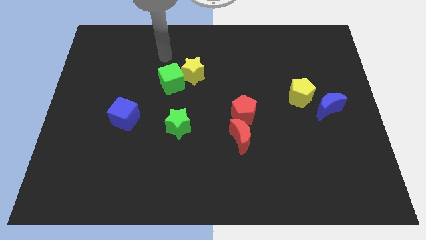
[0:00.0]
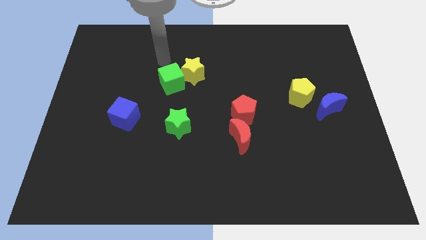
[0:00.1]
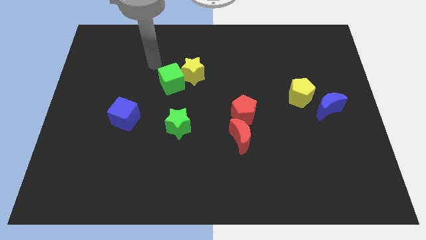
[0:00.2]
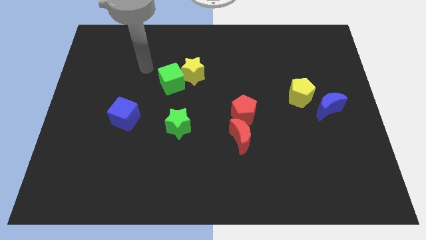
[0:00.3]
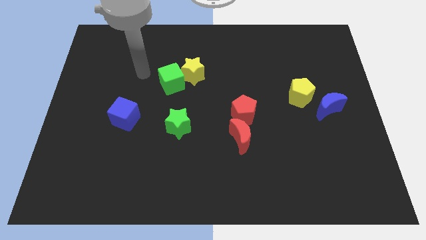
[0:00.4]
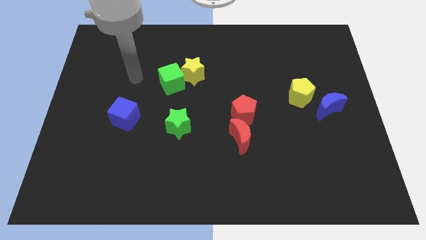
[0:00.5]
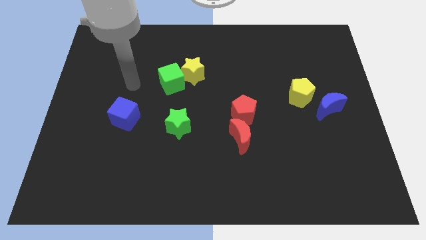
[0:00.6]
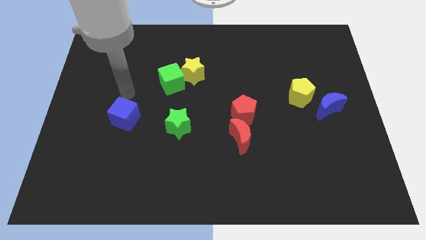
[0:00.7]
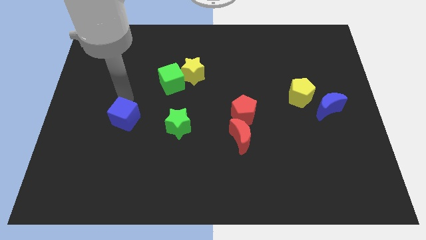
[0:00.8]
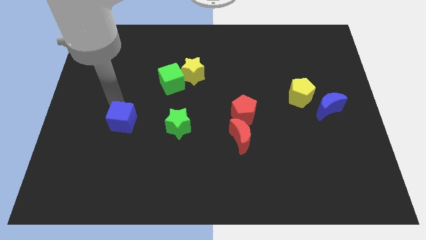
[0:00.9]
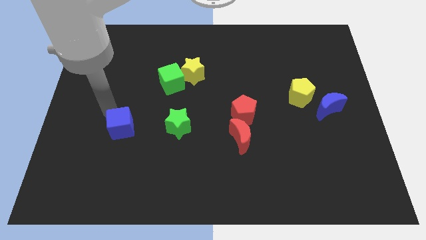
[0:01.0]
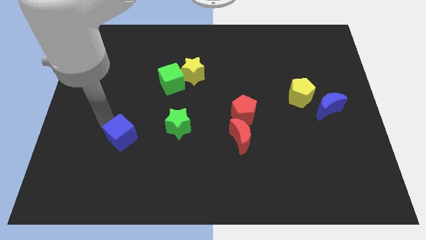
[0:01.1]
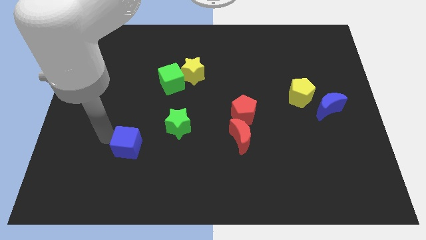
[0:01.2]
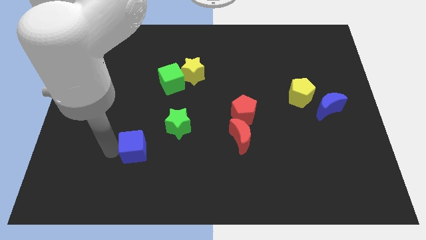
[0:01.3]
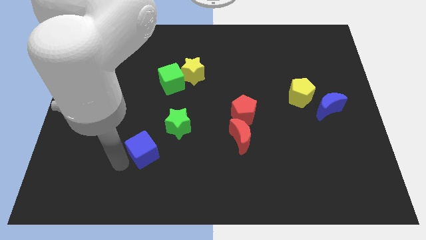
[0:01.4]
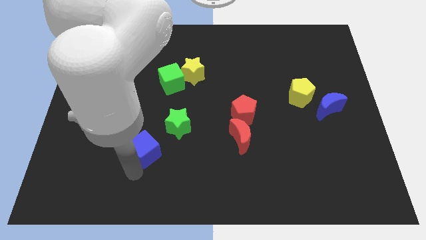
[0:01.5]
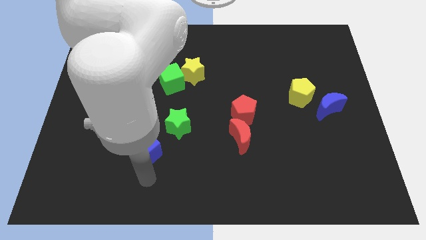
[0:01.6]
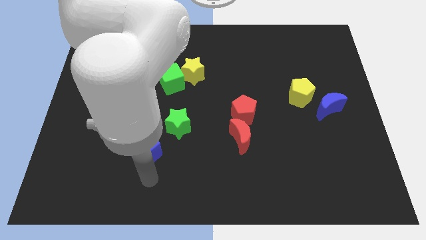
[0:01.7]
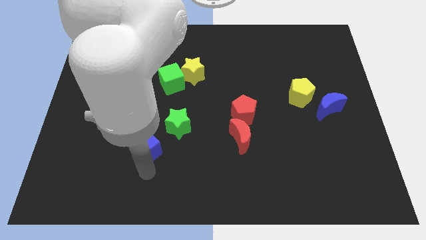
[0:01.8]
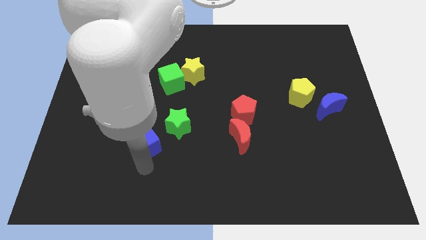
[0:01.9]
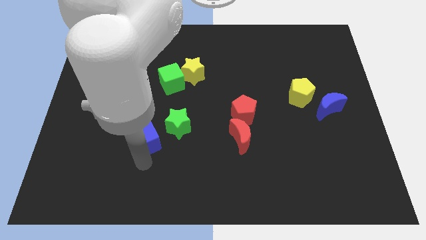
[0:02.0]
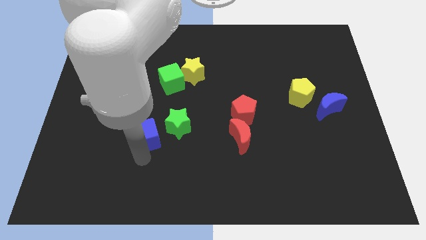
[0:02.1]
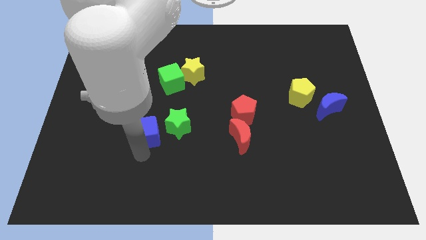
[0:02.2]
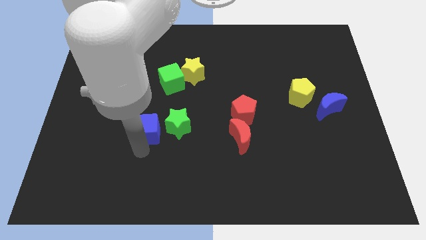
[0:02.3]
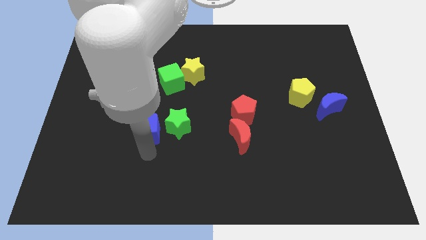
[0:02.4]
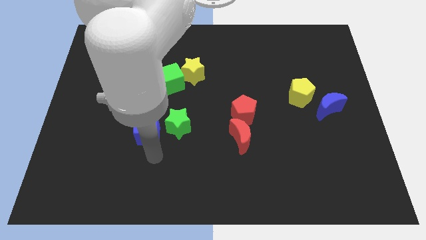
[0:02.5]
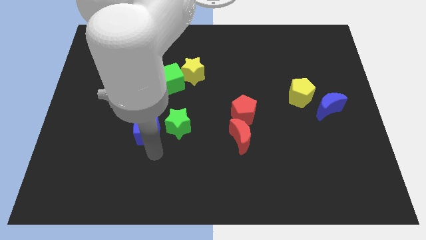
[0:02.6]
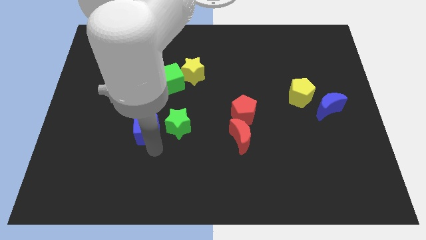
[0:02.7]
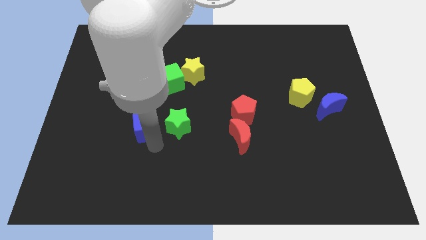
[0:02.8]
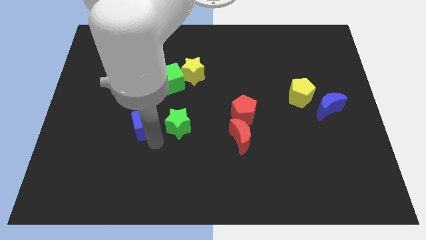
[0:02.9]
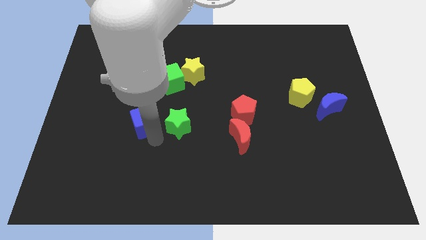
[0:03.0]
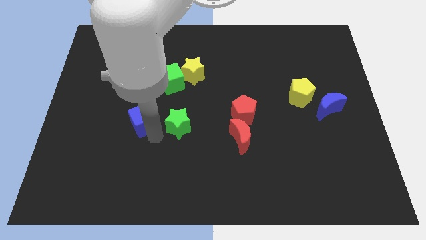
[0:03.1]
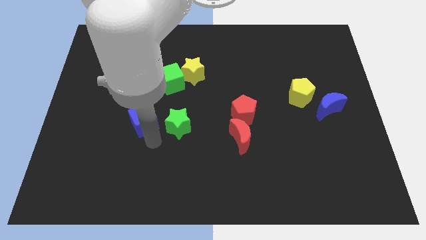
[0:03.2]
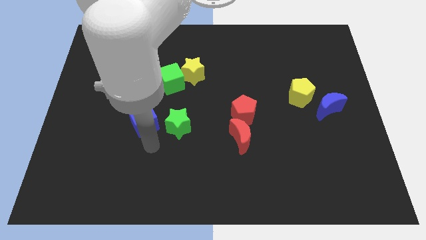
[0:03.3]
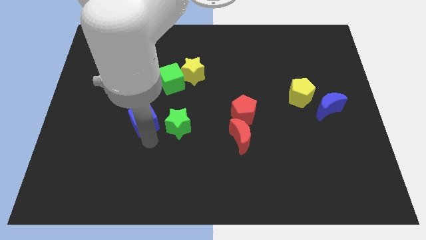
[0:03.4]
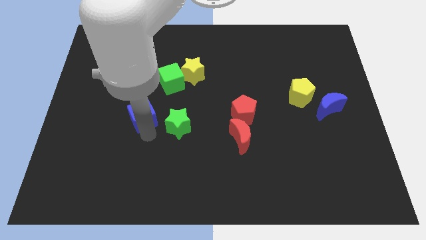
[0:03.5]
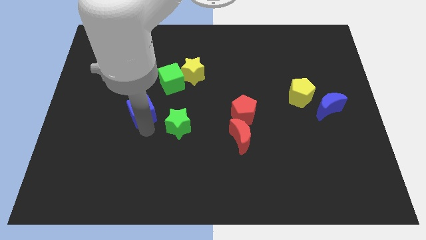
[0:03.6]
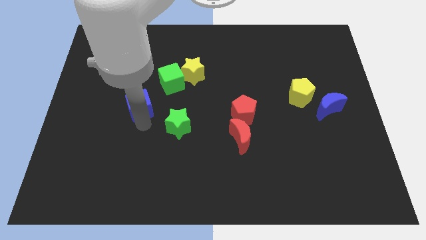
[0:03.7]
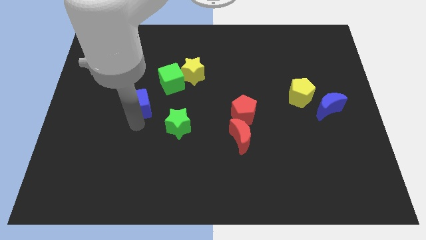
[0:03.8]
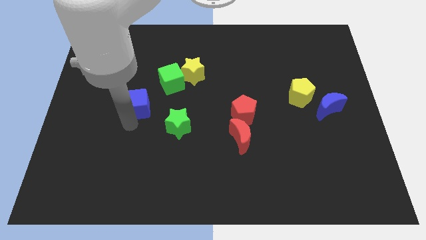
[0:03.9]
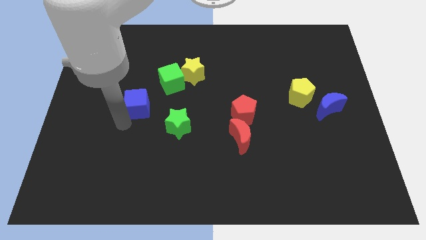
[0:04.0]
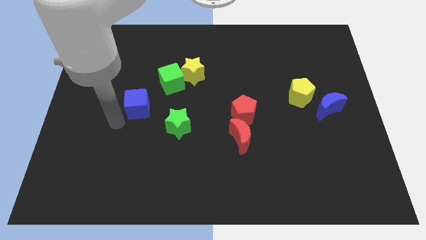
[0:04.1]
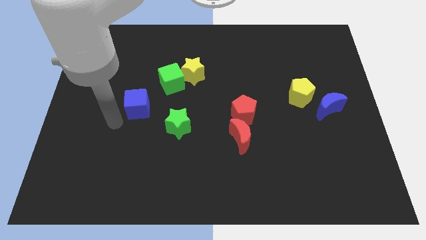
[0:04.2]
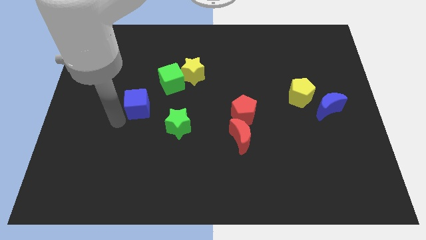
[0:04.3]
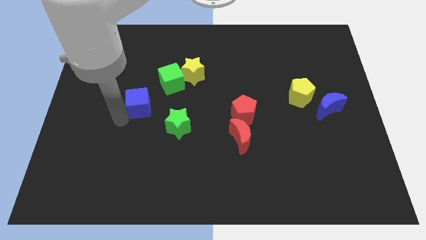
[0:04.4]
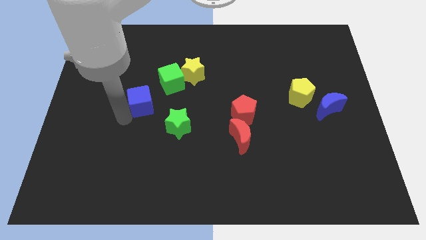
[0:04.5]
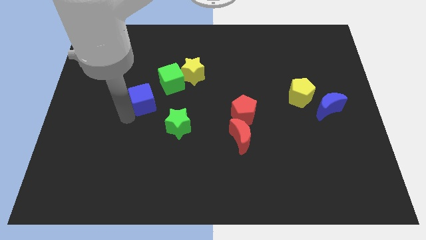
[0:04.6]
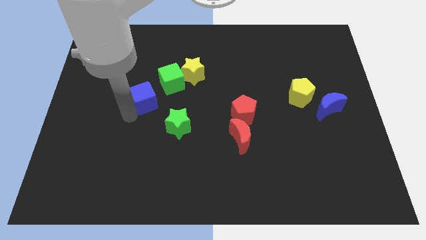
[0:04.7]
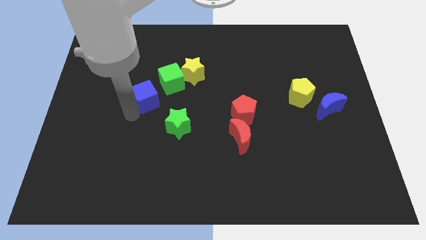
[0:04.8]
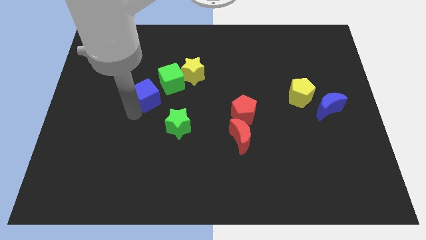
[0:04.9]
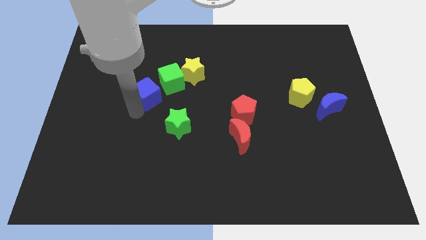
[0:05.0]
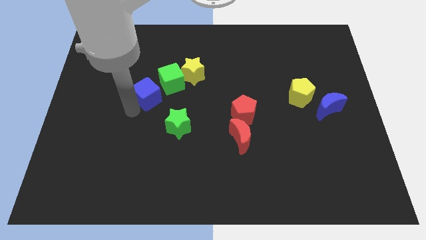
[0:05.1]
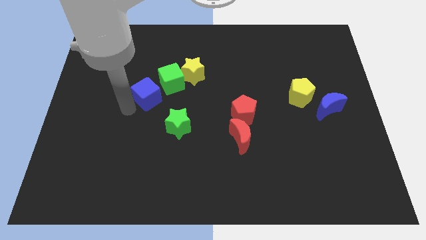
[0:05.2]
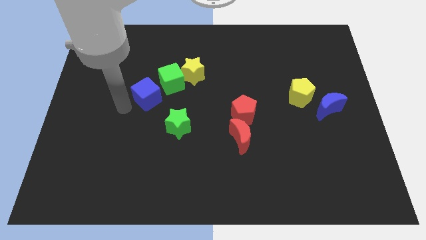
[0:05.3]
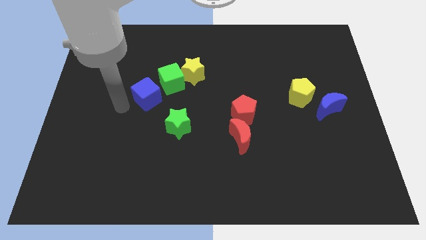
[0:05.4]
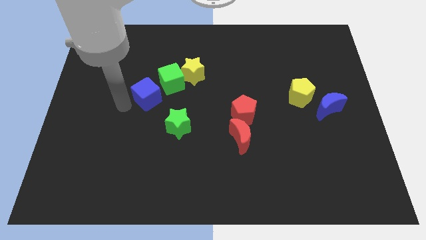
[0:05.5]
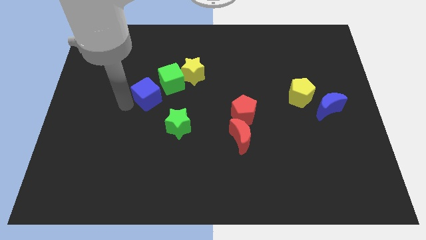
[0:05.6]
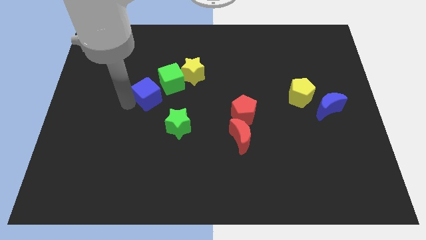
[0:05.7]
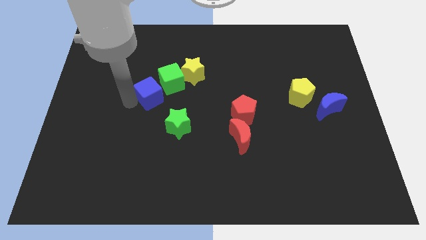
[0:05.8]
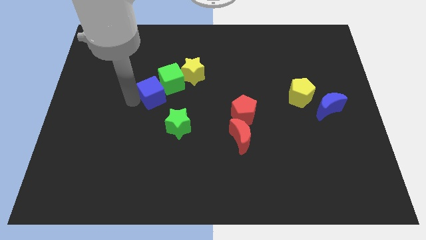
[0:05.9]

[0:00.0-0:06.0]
push the blue cube next to the green cube

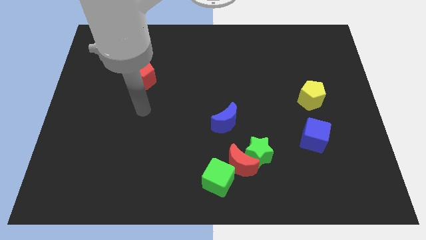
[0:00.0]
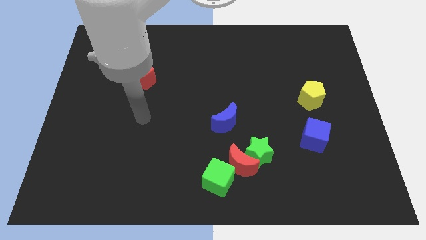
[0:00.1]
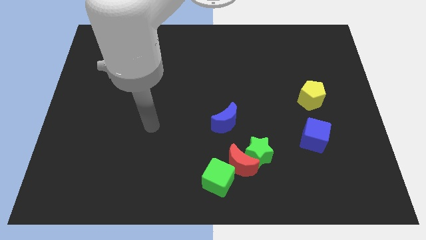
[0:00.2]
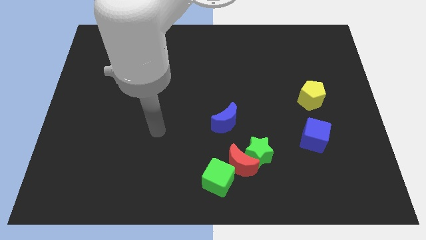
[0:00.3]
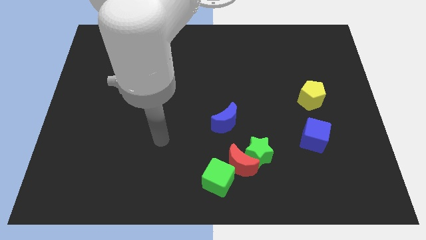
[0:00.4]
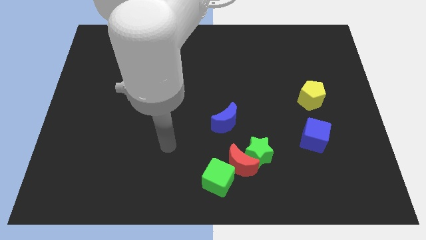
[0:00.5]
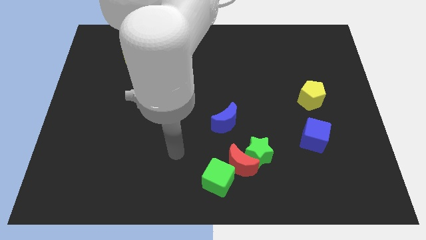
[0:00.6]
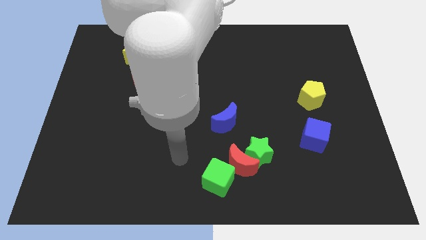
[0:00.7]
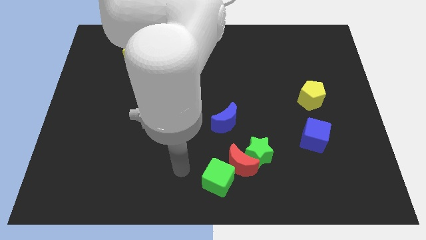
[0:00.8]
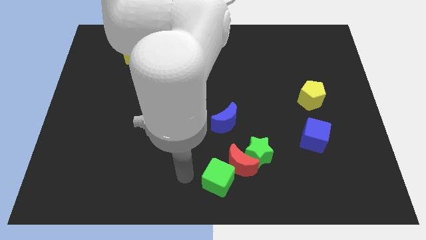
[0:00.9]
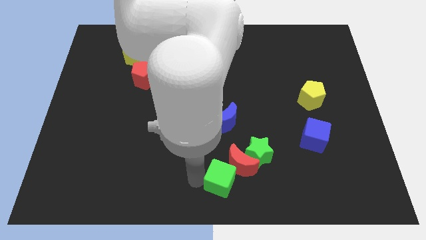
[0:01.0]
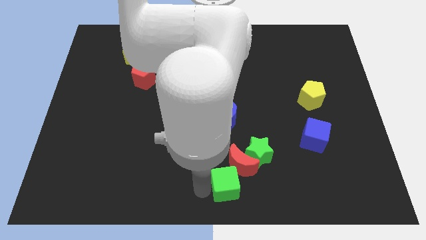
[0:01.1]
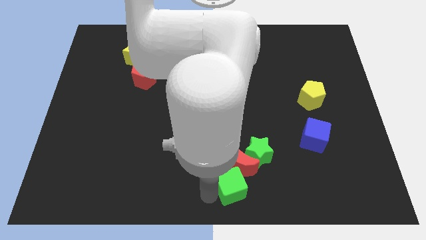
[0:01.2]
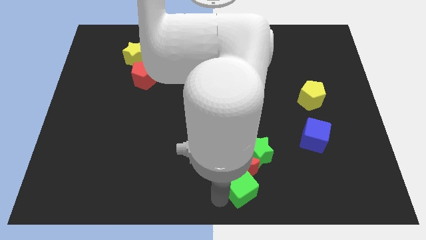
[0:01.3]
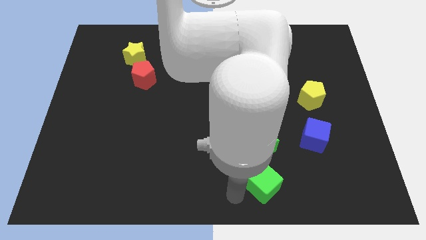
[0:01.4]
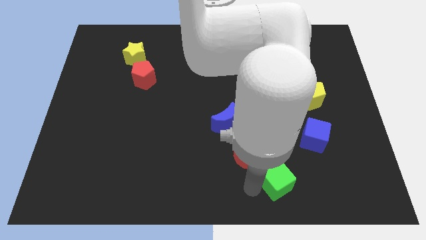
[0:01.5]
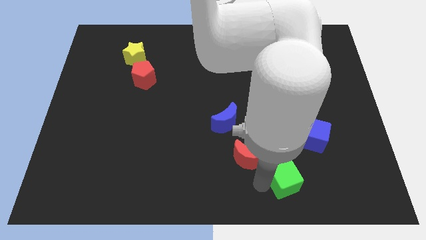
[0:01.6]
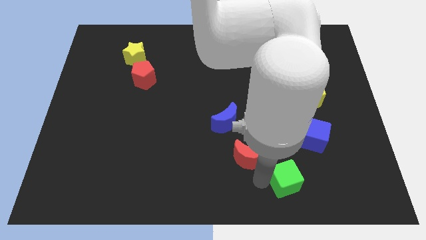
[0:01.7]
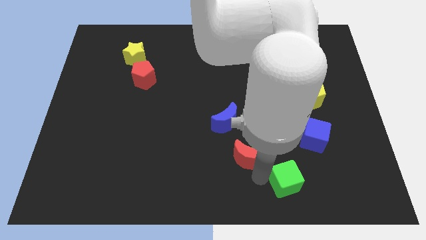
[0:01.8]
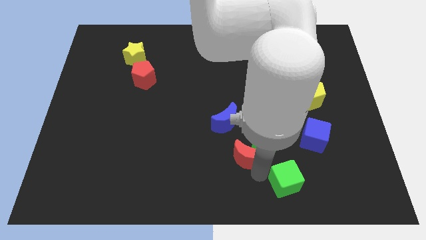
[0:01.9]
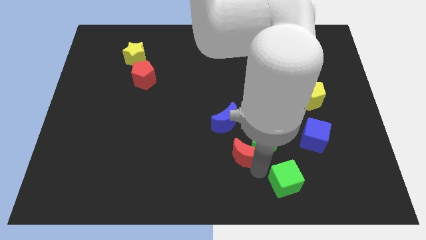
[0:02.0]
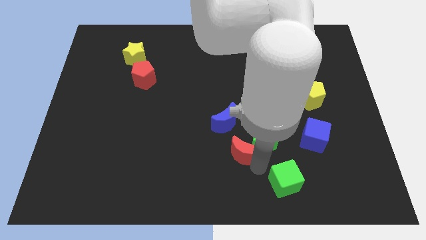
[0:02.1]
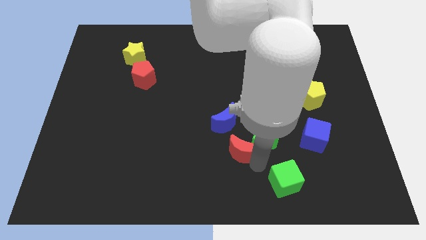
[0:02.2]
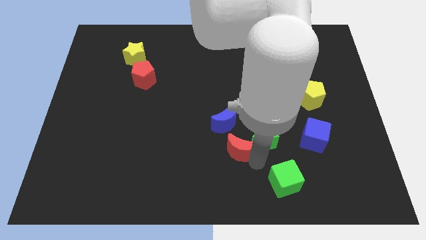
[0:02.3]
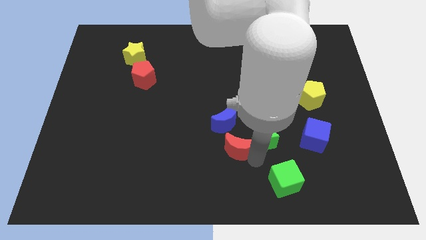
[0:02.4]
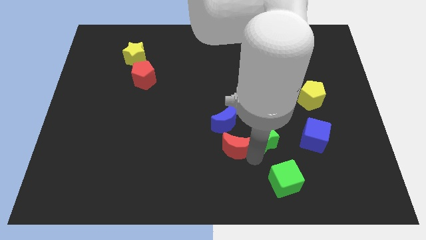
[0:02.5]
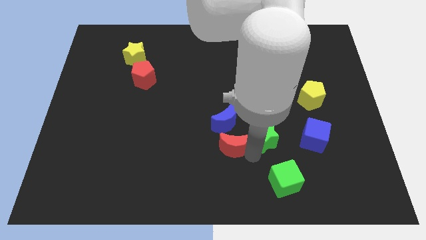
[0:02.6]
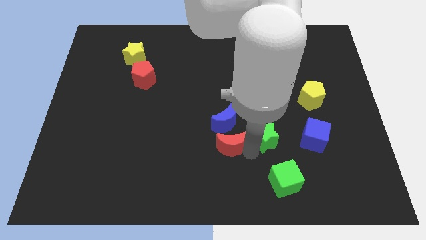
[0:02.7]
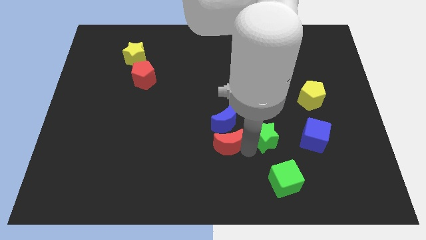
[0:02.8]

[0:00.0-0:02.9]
move the red moon close to the blue moon
